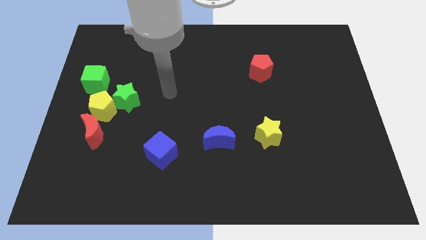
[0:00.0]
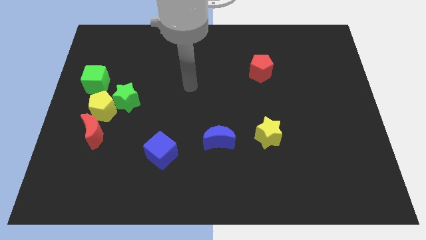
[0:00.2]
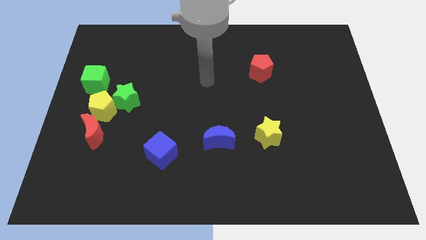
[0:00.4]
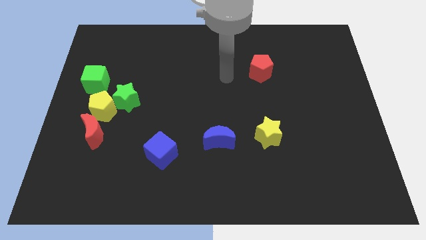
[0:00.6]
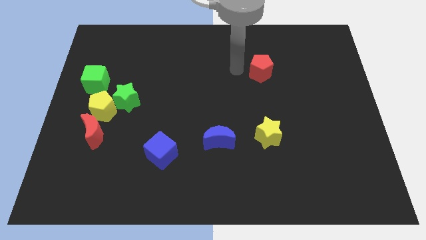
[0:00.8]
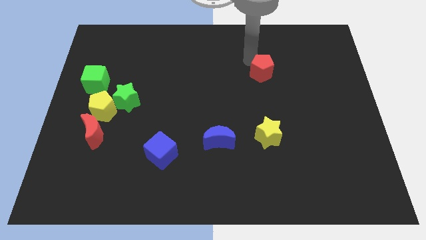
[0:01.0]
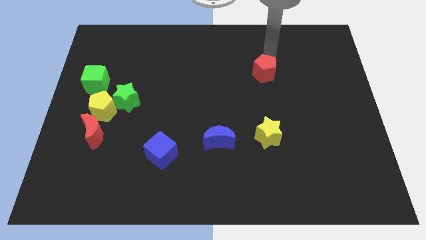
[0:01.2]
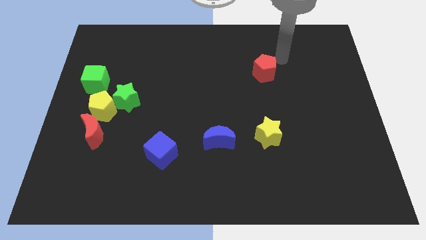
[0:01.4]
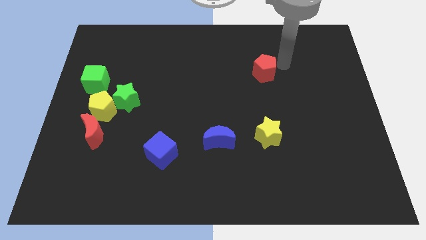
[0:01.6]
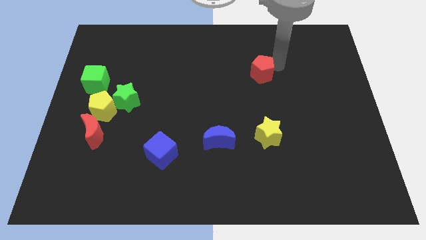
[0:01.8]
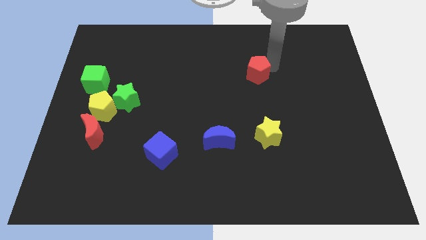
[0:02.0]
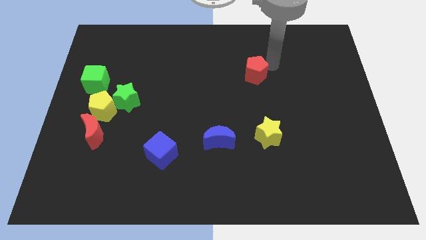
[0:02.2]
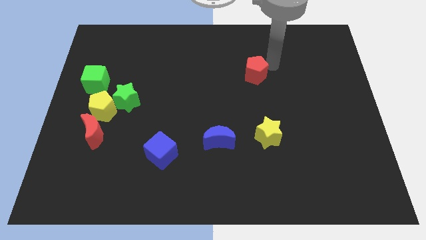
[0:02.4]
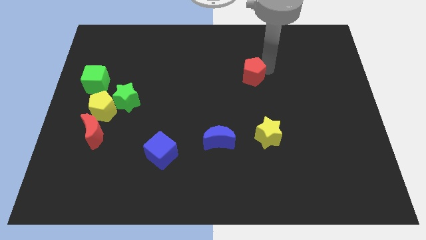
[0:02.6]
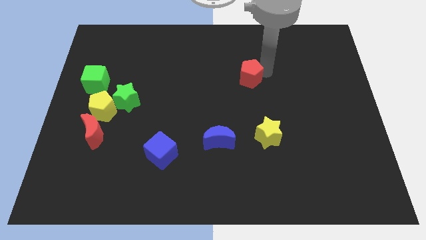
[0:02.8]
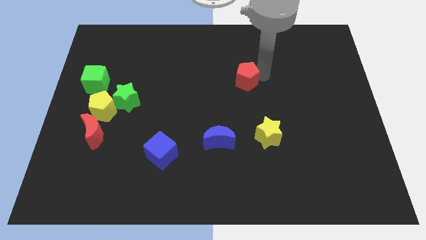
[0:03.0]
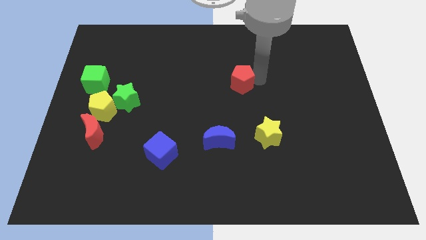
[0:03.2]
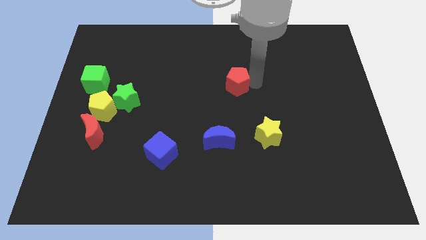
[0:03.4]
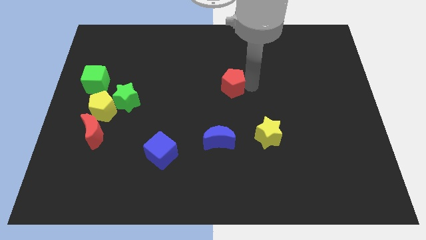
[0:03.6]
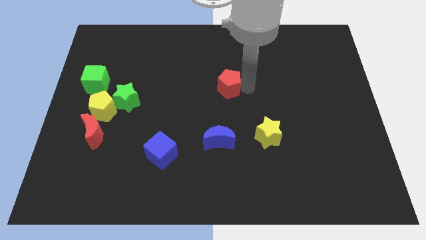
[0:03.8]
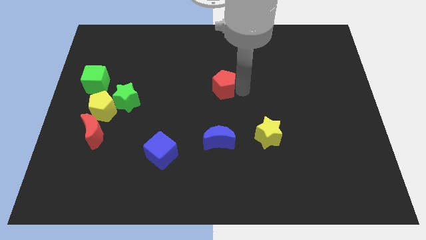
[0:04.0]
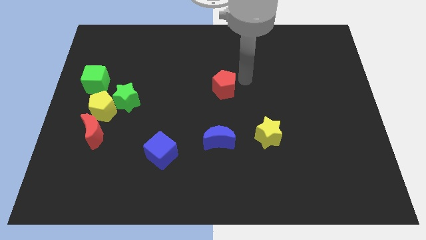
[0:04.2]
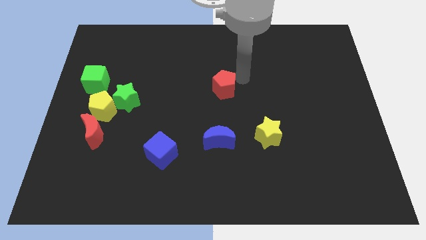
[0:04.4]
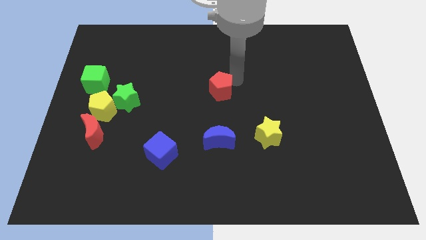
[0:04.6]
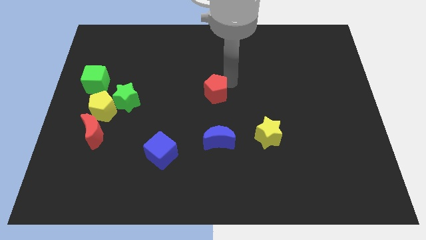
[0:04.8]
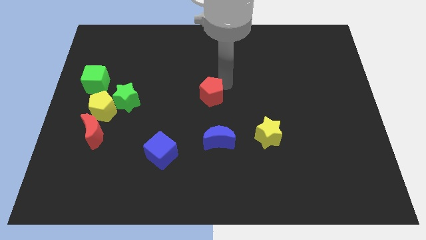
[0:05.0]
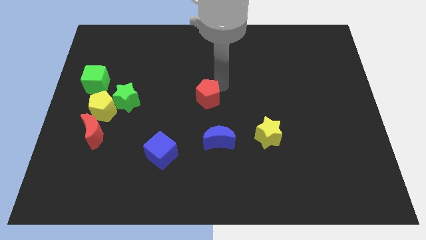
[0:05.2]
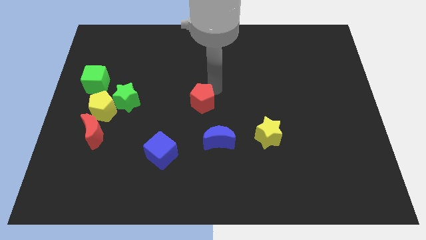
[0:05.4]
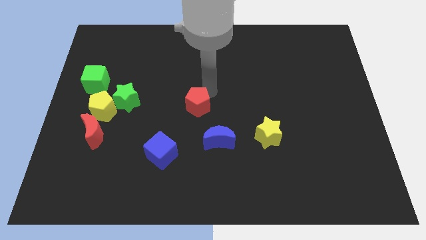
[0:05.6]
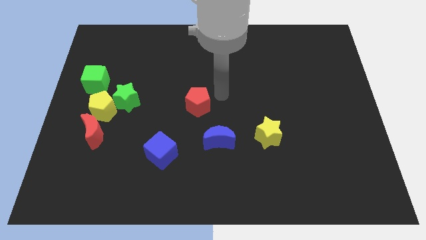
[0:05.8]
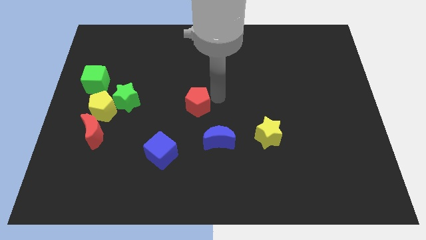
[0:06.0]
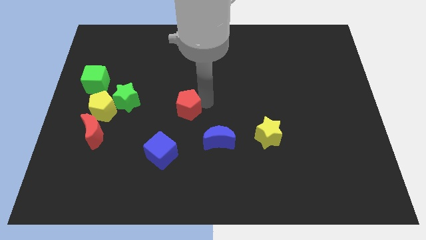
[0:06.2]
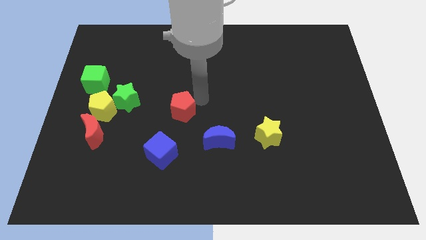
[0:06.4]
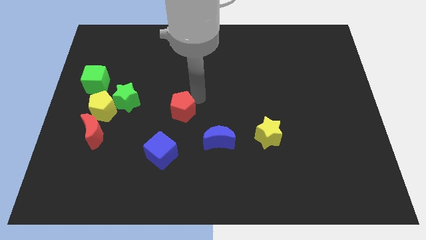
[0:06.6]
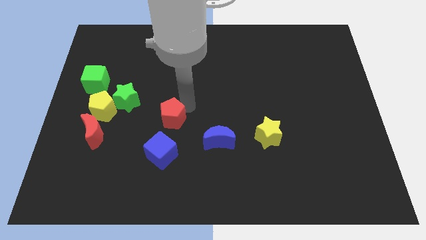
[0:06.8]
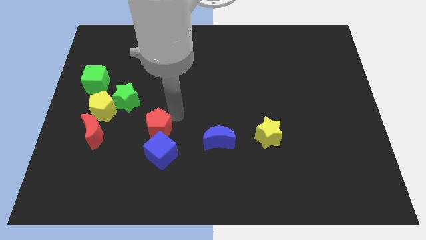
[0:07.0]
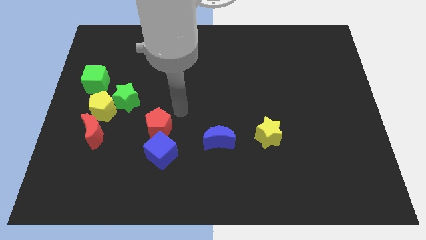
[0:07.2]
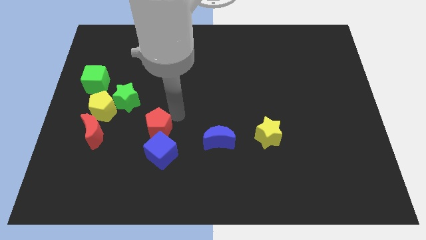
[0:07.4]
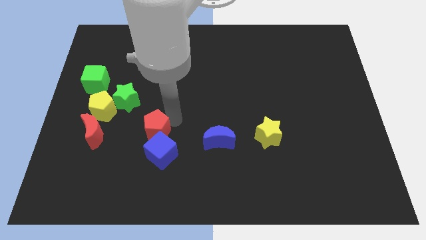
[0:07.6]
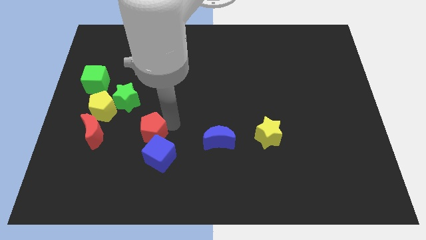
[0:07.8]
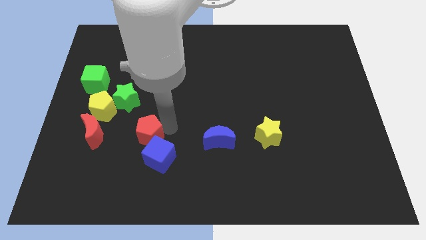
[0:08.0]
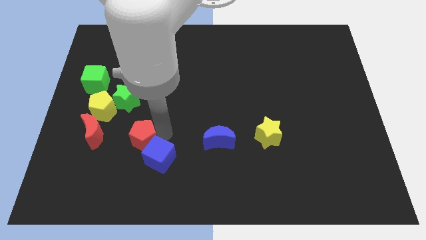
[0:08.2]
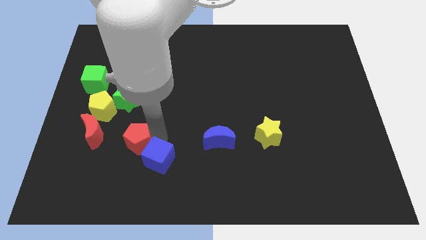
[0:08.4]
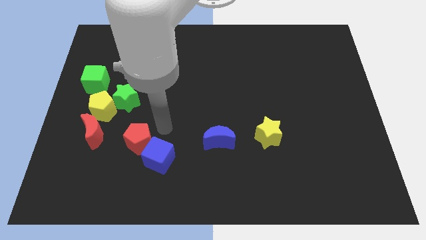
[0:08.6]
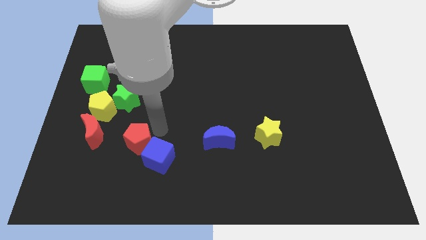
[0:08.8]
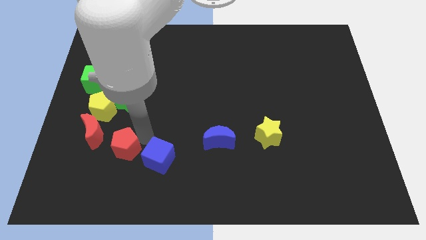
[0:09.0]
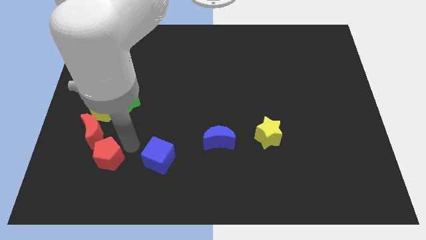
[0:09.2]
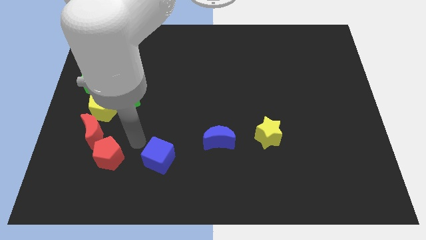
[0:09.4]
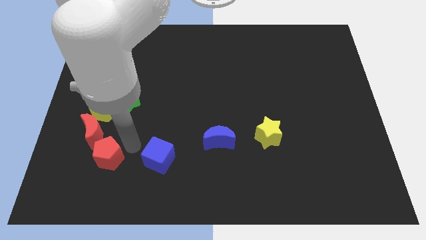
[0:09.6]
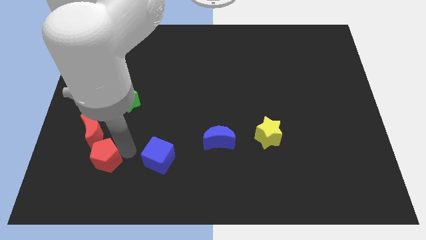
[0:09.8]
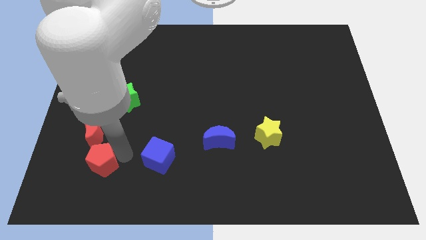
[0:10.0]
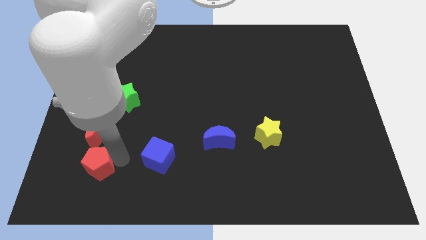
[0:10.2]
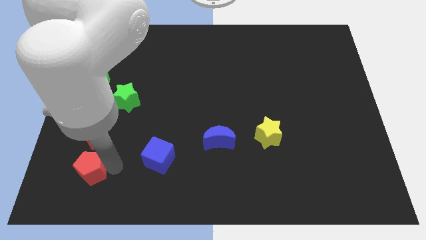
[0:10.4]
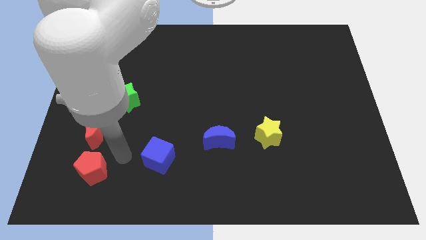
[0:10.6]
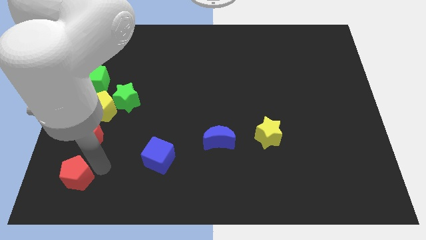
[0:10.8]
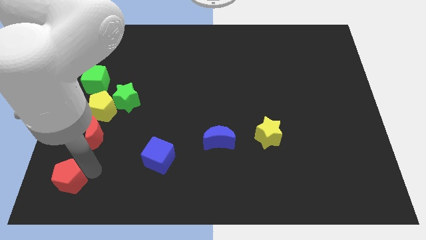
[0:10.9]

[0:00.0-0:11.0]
slide the red pentagon to the lower left corner

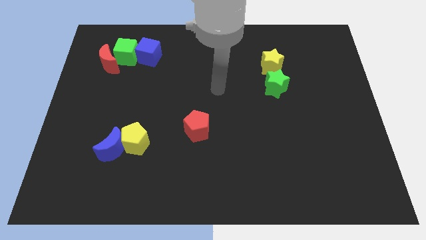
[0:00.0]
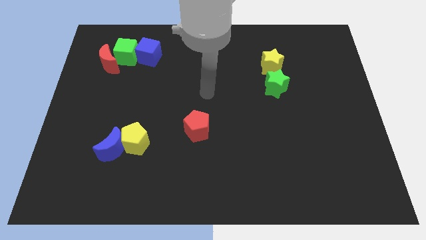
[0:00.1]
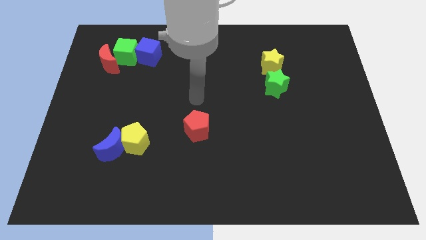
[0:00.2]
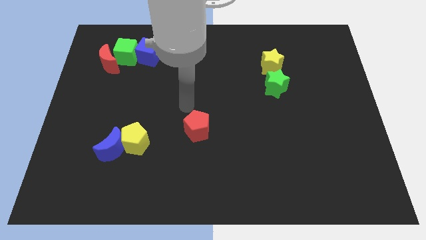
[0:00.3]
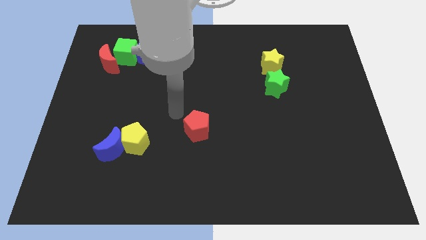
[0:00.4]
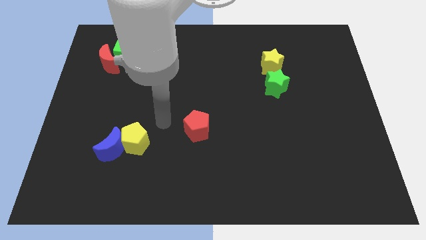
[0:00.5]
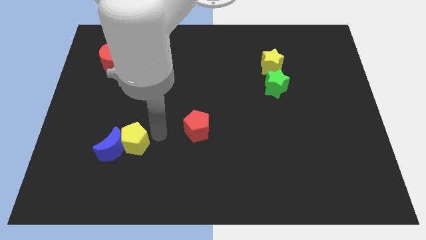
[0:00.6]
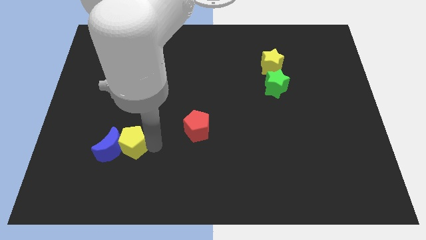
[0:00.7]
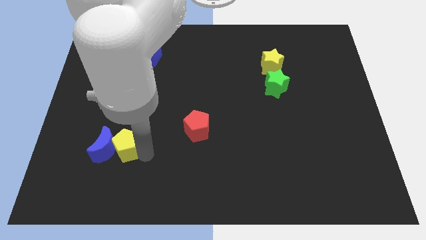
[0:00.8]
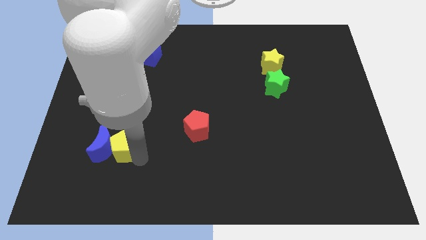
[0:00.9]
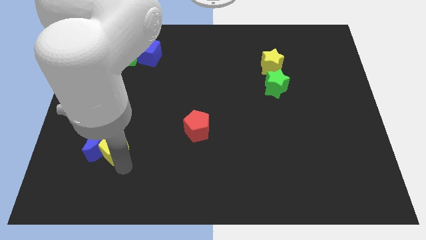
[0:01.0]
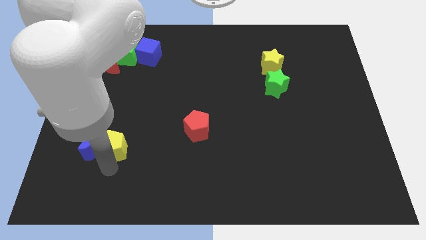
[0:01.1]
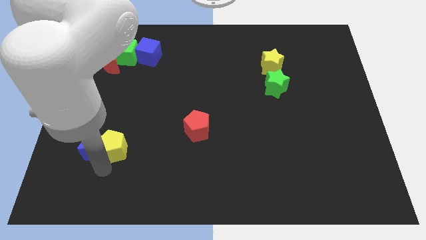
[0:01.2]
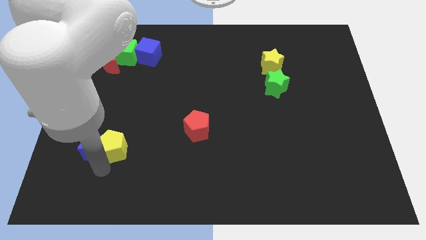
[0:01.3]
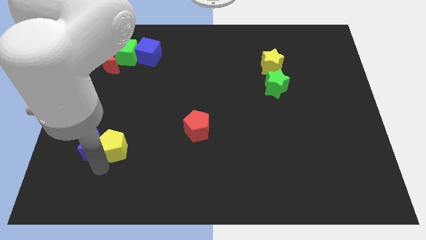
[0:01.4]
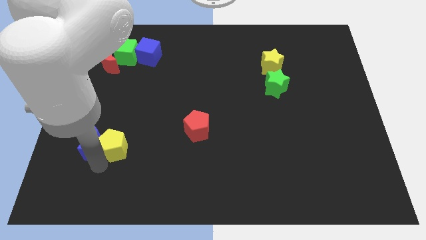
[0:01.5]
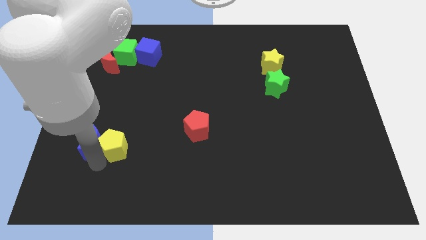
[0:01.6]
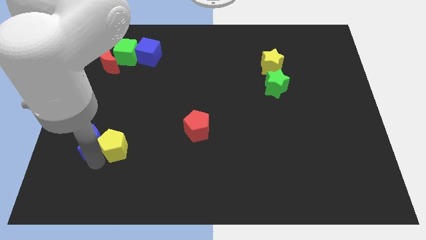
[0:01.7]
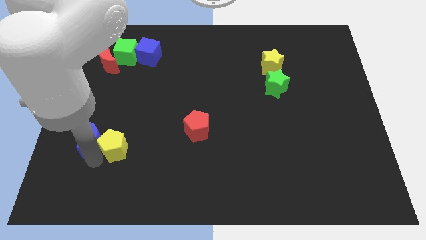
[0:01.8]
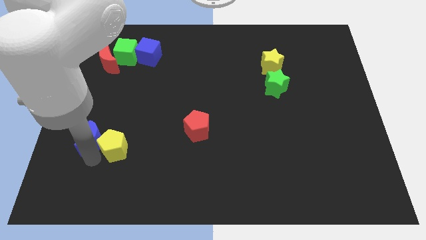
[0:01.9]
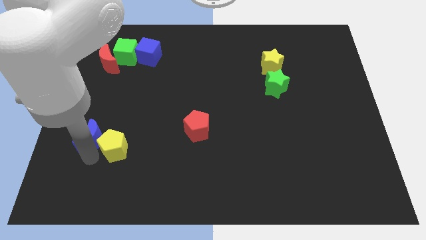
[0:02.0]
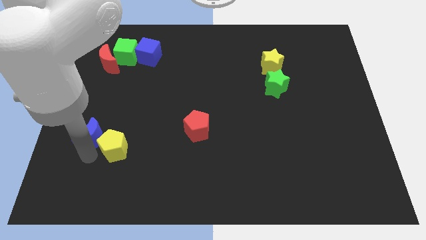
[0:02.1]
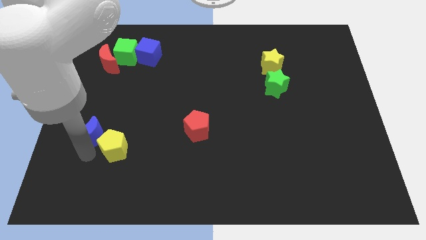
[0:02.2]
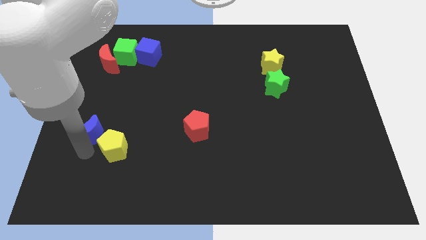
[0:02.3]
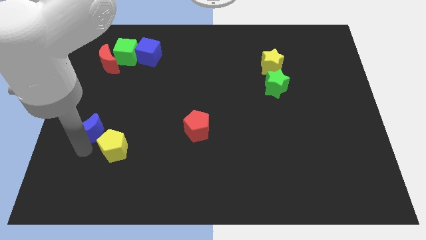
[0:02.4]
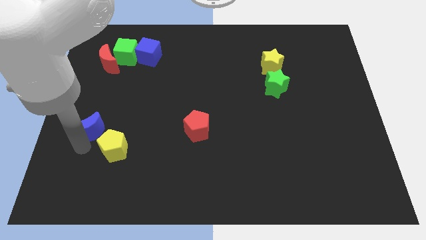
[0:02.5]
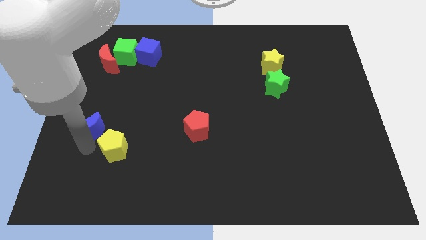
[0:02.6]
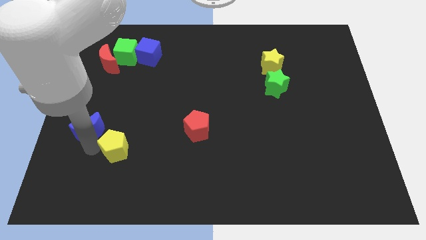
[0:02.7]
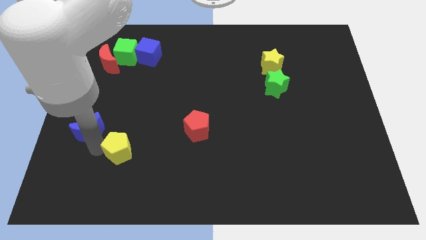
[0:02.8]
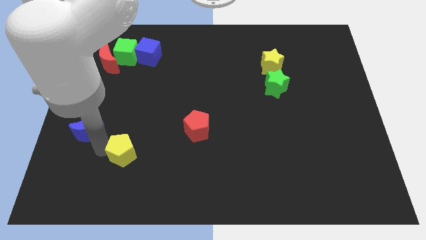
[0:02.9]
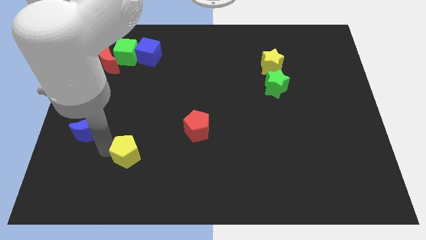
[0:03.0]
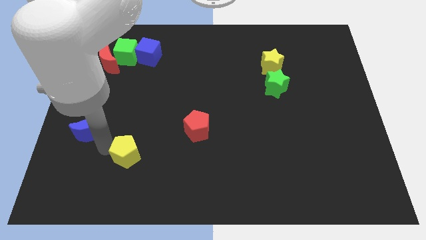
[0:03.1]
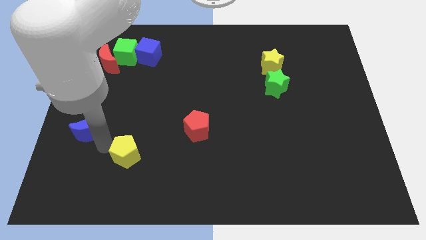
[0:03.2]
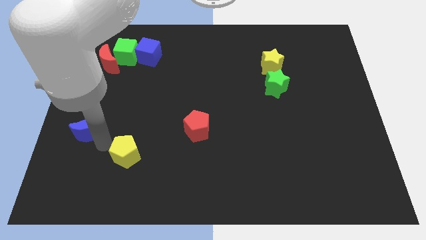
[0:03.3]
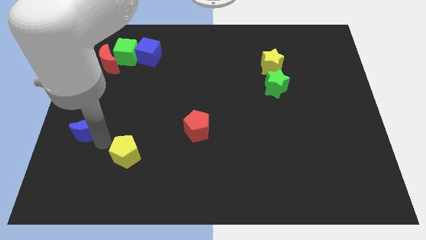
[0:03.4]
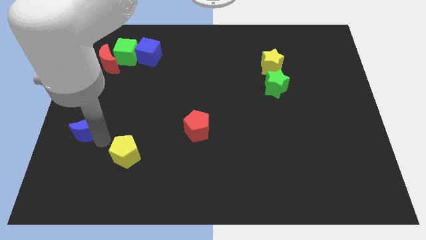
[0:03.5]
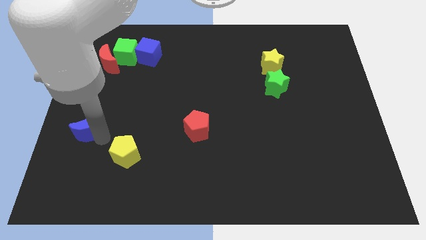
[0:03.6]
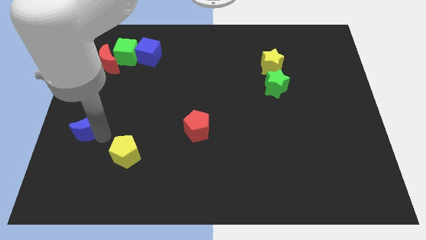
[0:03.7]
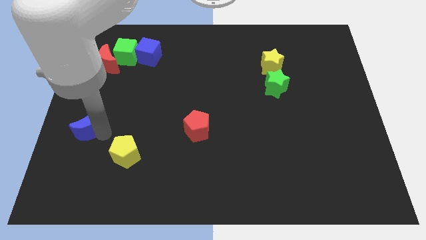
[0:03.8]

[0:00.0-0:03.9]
move the blue moon to the left side of the board
